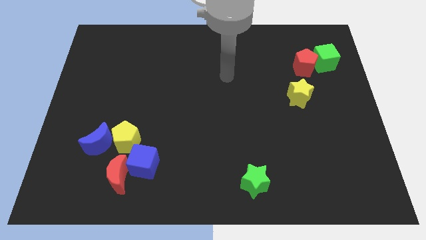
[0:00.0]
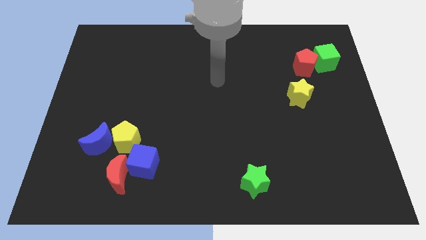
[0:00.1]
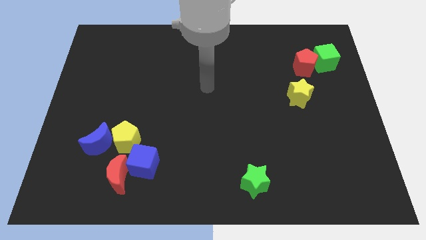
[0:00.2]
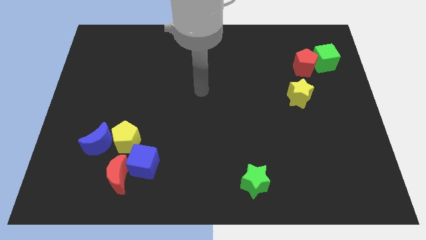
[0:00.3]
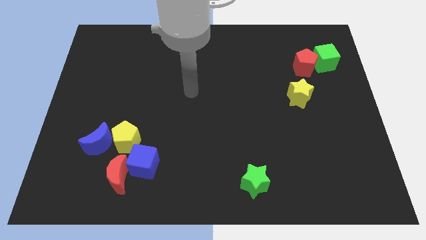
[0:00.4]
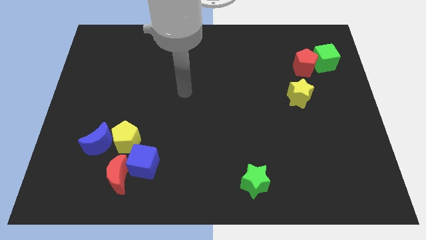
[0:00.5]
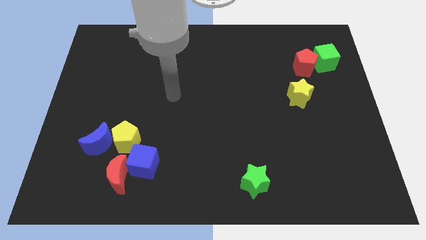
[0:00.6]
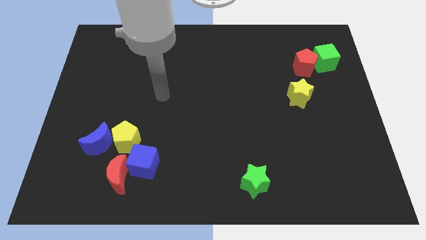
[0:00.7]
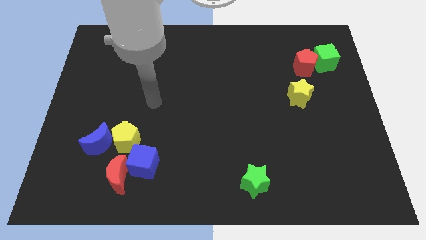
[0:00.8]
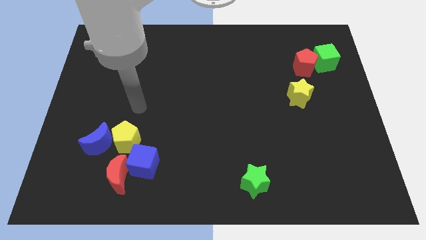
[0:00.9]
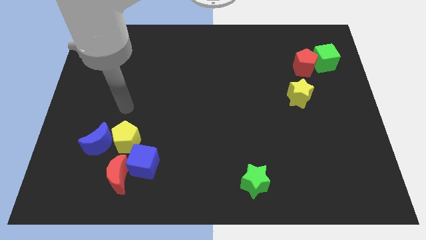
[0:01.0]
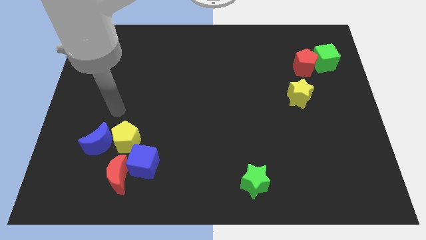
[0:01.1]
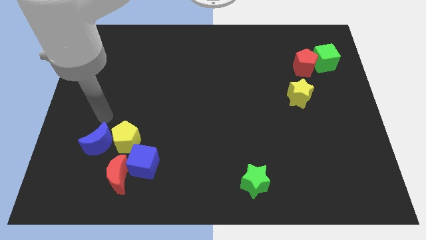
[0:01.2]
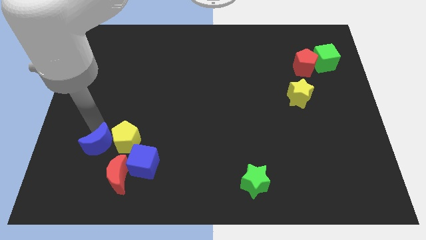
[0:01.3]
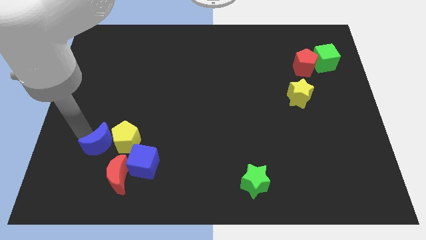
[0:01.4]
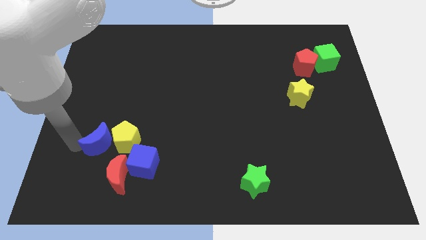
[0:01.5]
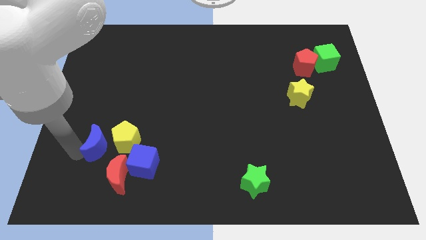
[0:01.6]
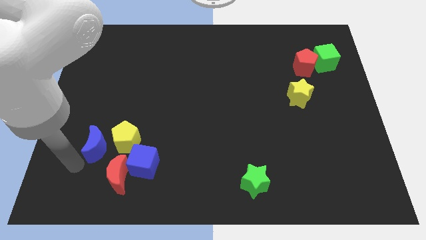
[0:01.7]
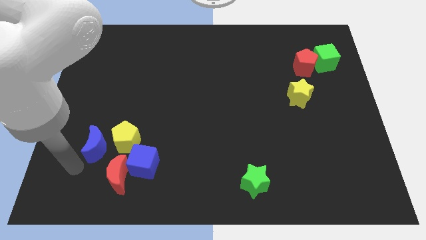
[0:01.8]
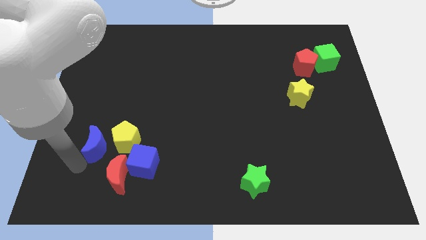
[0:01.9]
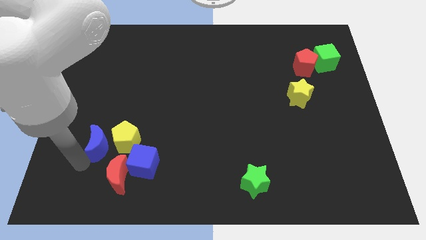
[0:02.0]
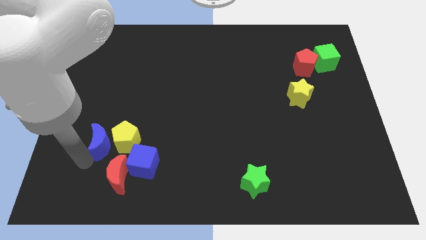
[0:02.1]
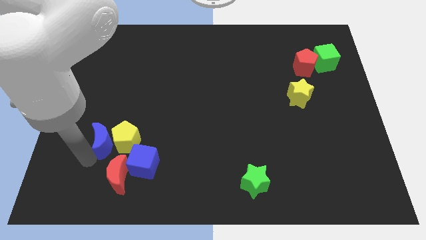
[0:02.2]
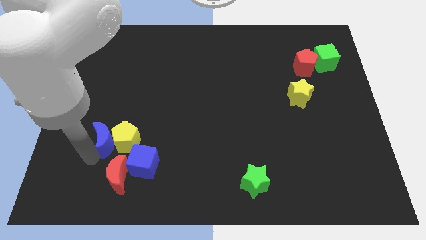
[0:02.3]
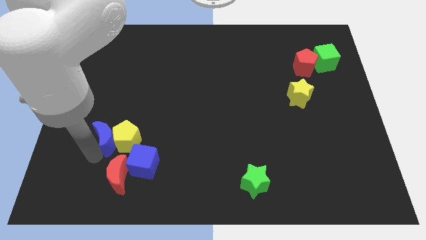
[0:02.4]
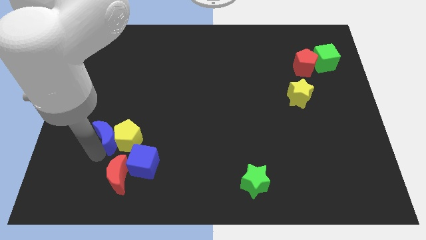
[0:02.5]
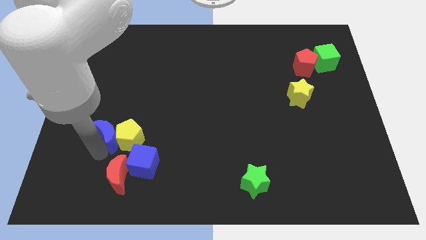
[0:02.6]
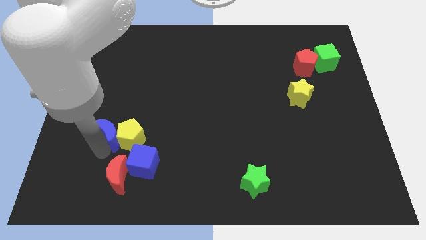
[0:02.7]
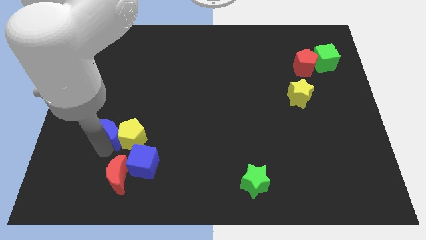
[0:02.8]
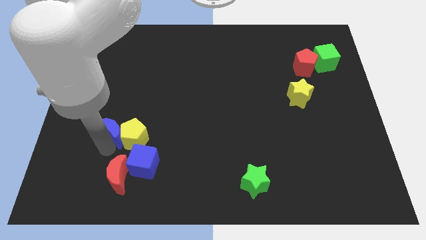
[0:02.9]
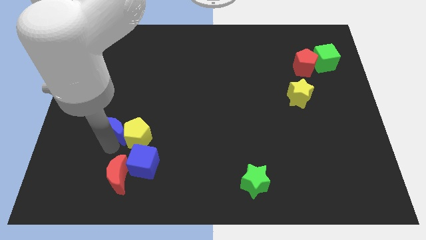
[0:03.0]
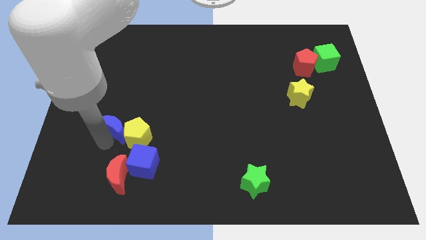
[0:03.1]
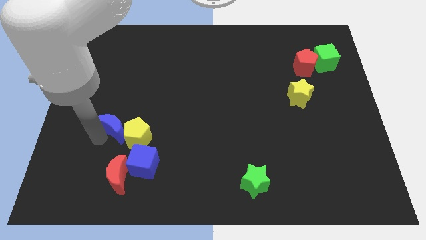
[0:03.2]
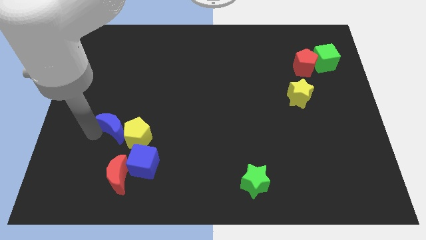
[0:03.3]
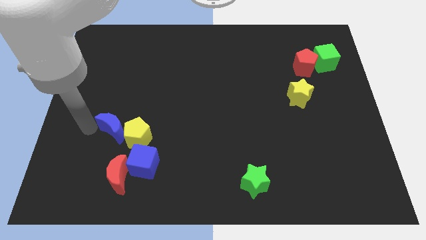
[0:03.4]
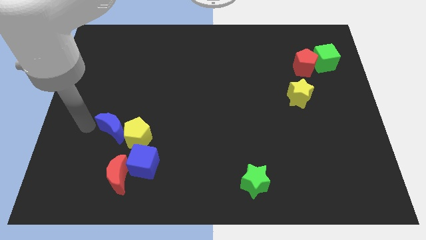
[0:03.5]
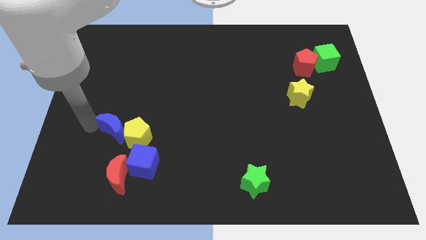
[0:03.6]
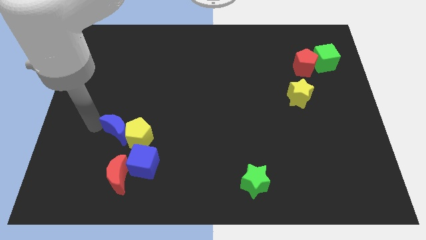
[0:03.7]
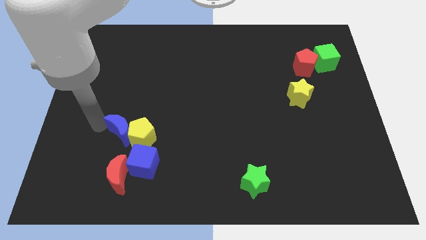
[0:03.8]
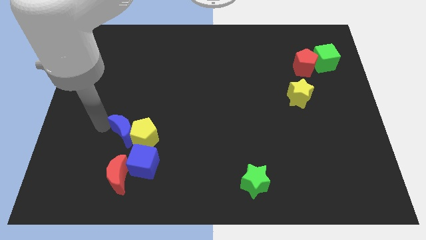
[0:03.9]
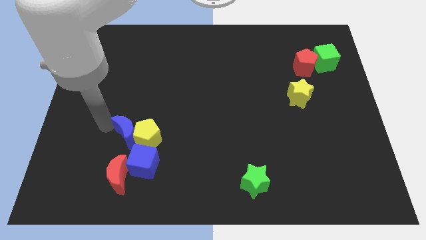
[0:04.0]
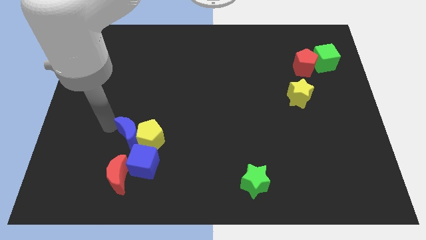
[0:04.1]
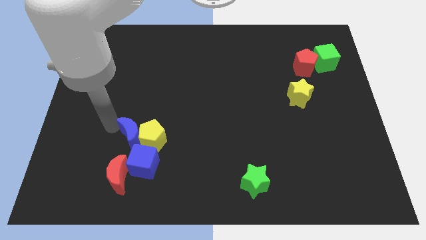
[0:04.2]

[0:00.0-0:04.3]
push the blue moon right a little bit

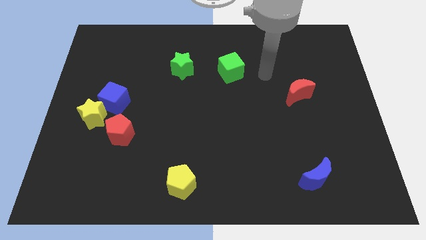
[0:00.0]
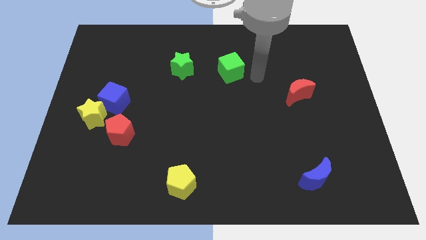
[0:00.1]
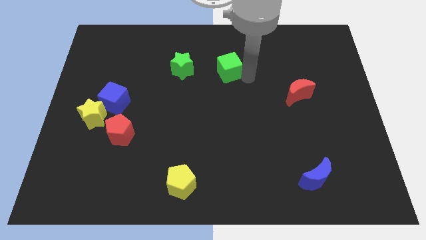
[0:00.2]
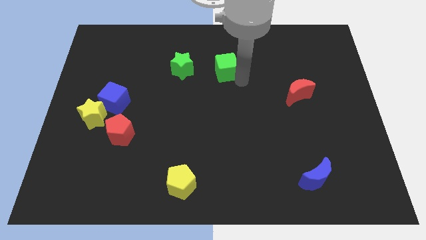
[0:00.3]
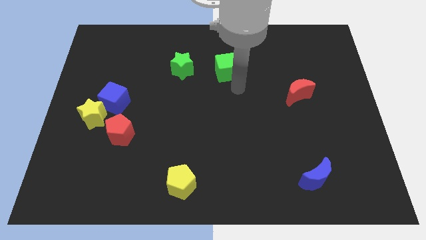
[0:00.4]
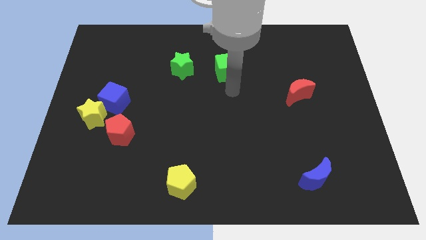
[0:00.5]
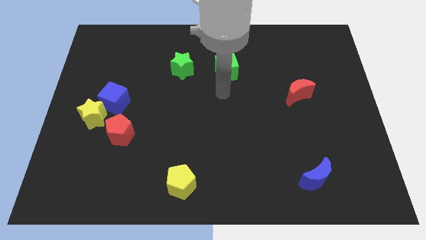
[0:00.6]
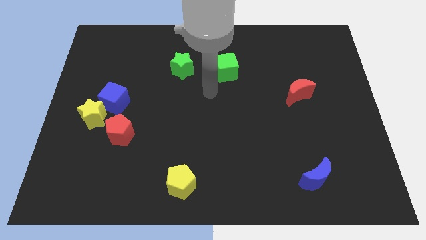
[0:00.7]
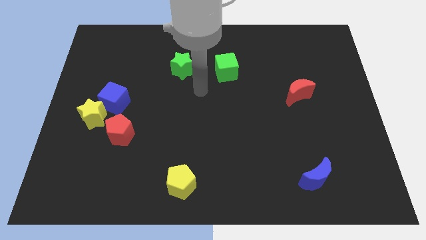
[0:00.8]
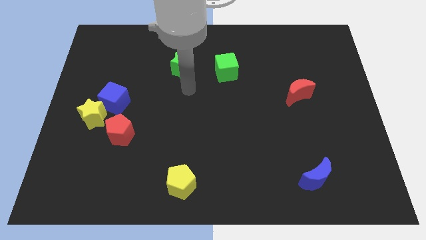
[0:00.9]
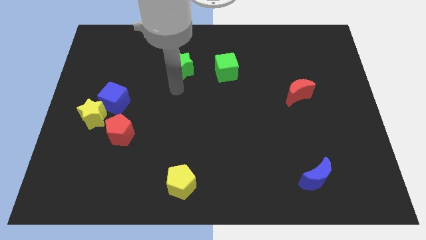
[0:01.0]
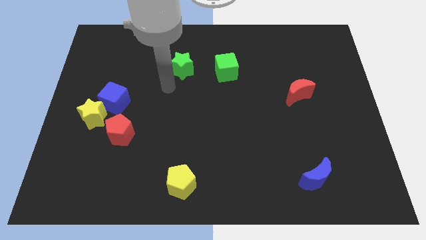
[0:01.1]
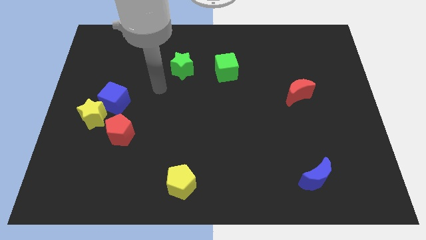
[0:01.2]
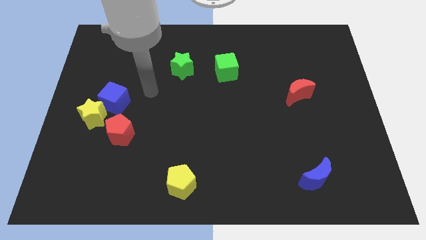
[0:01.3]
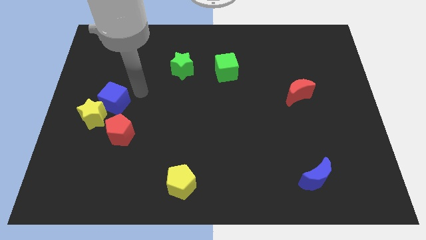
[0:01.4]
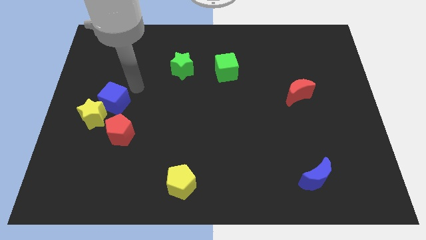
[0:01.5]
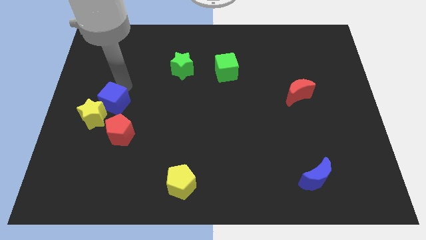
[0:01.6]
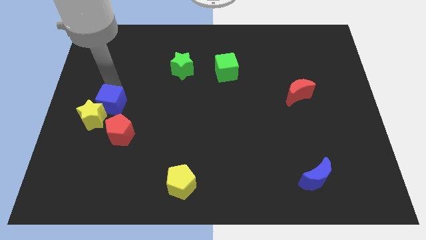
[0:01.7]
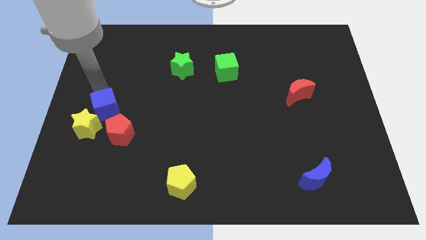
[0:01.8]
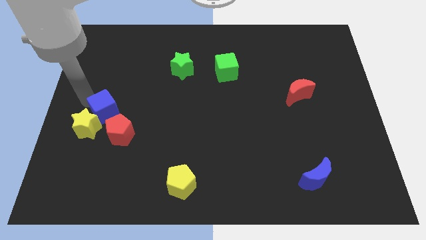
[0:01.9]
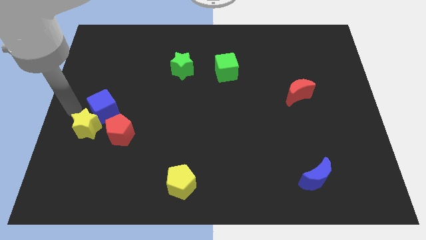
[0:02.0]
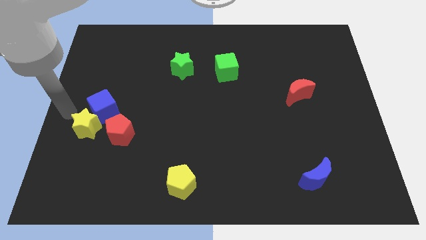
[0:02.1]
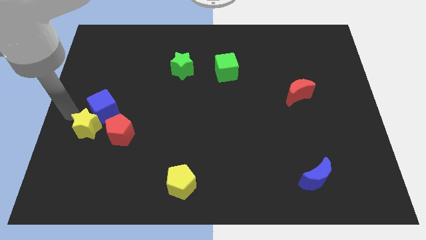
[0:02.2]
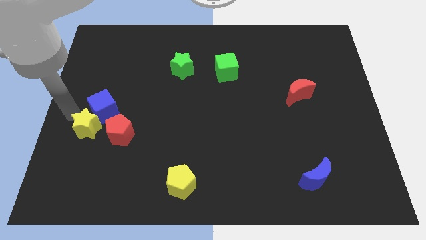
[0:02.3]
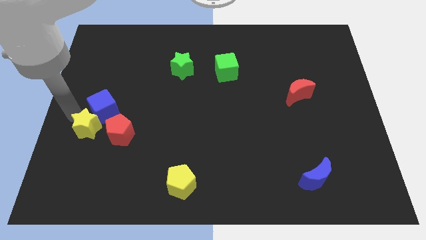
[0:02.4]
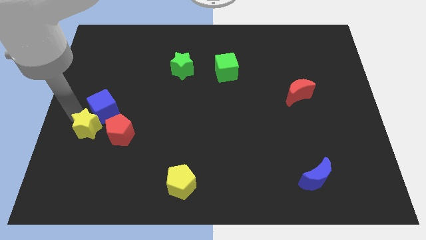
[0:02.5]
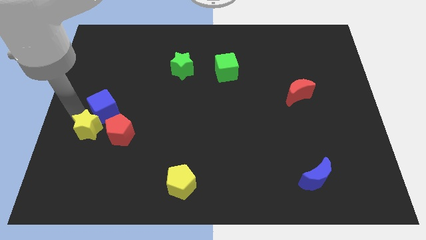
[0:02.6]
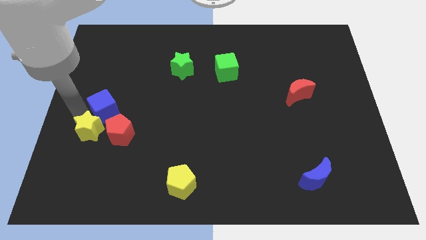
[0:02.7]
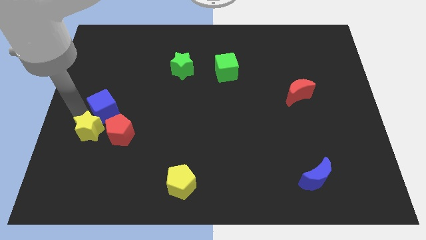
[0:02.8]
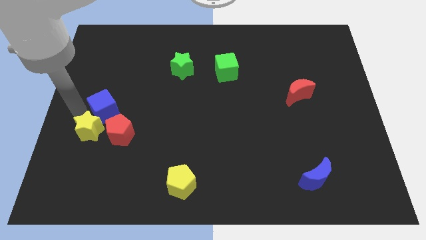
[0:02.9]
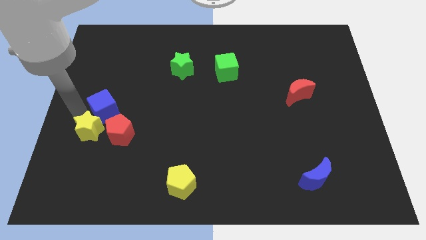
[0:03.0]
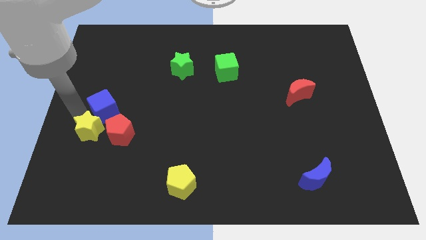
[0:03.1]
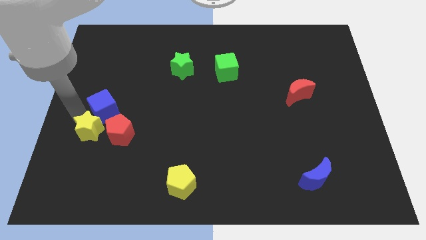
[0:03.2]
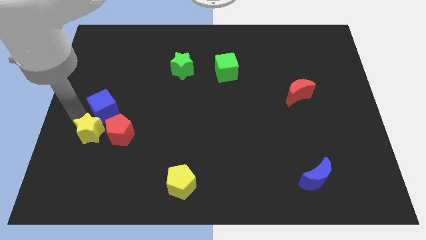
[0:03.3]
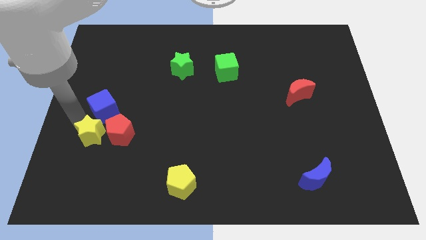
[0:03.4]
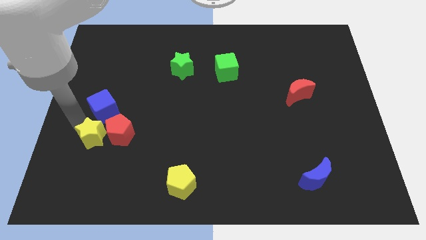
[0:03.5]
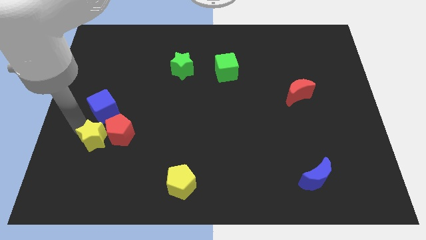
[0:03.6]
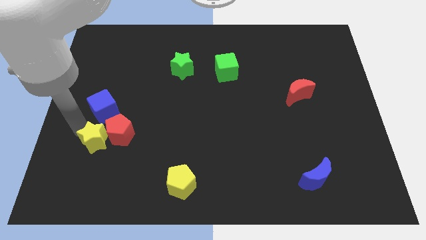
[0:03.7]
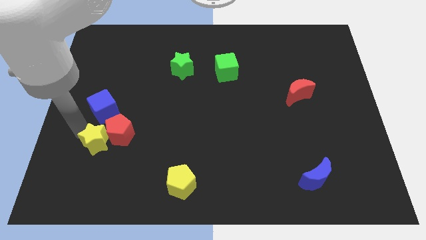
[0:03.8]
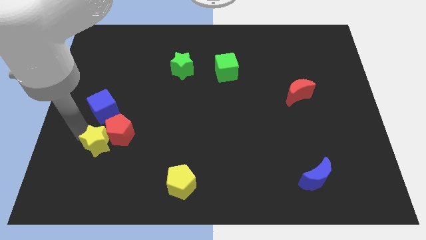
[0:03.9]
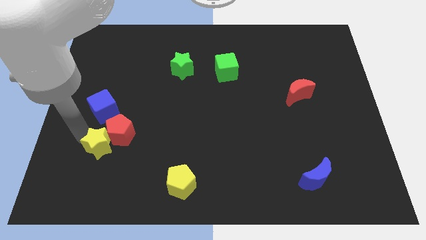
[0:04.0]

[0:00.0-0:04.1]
slightly push the yellow star downwards and then to the right

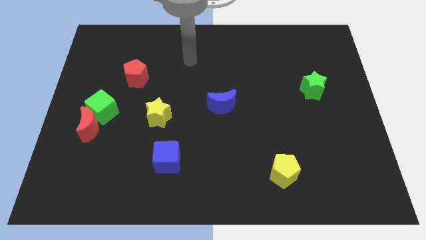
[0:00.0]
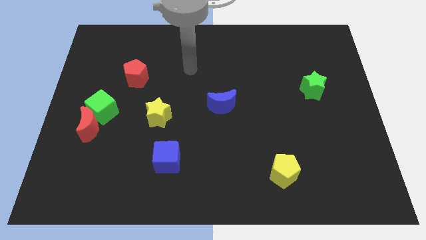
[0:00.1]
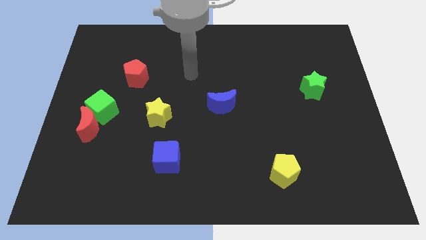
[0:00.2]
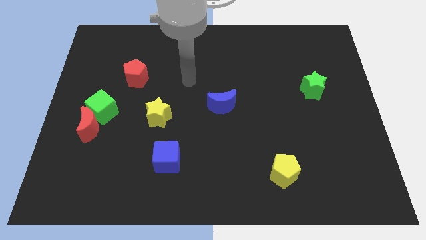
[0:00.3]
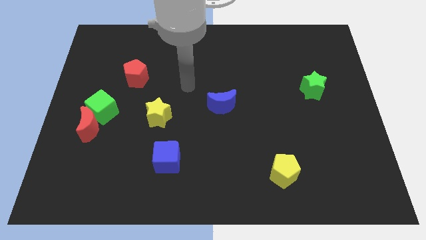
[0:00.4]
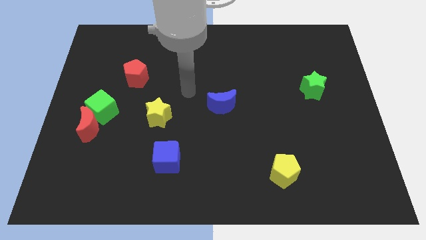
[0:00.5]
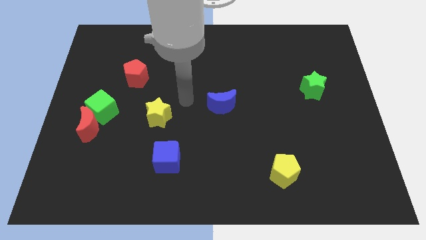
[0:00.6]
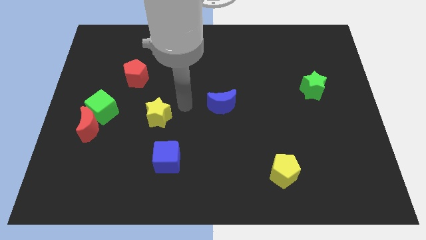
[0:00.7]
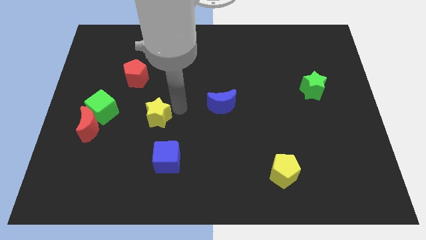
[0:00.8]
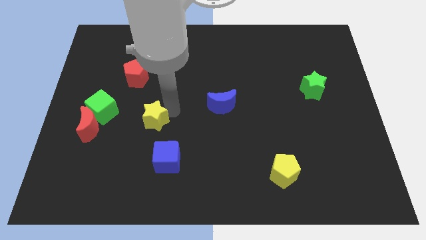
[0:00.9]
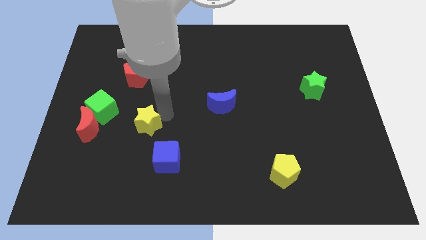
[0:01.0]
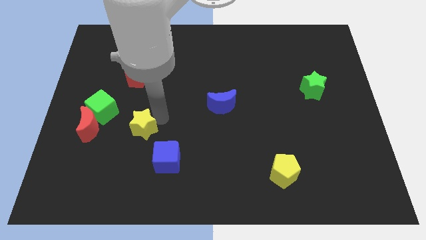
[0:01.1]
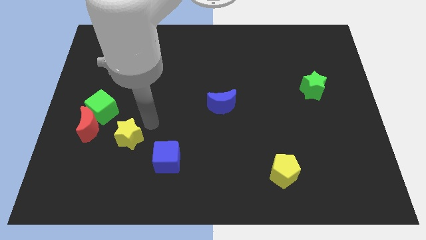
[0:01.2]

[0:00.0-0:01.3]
slide the yellow star downwards and left a bit
